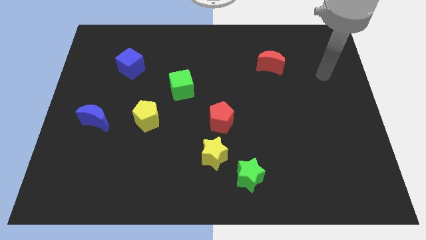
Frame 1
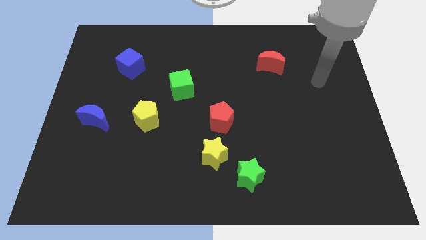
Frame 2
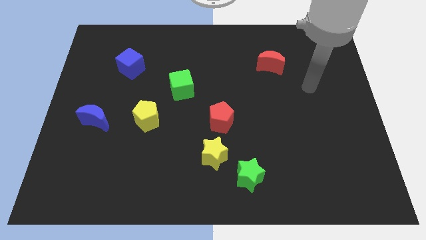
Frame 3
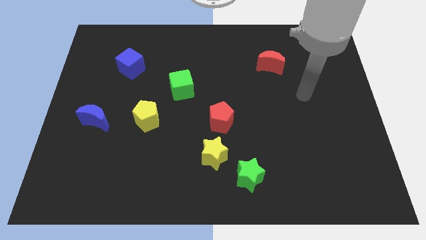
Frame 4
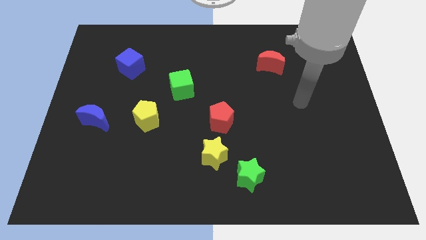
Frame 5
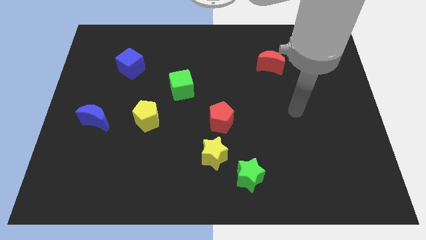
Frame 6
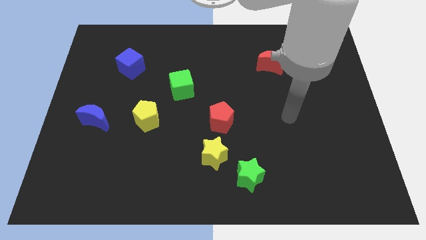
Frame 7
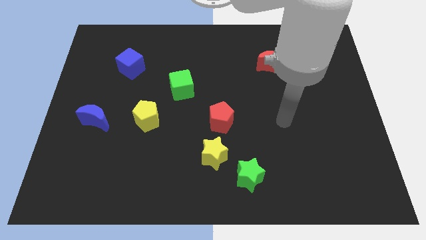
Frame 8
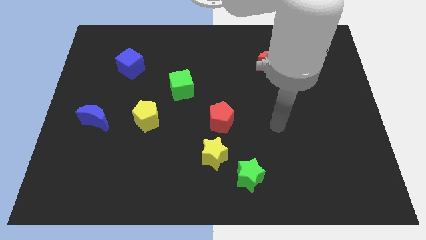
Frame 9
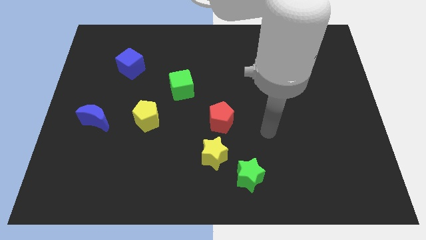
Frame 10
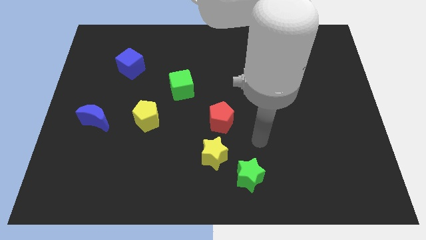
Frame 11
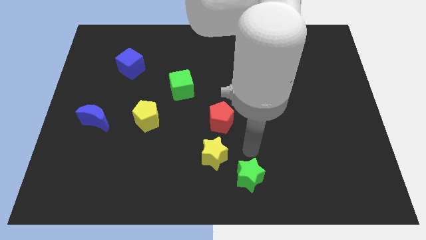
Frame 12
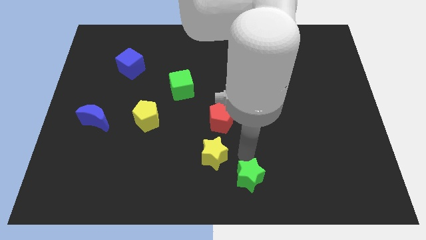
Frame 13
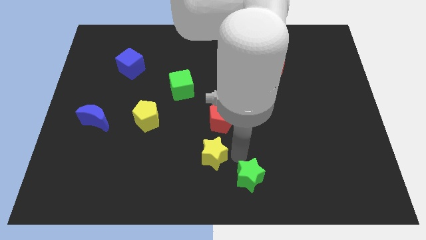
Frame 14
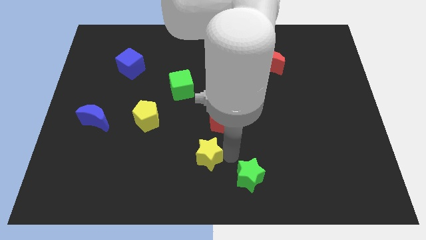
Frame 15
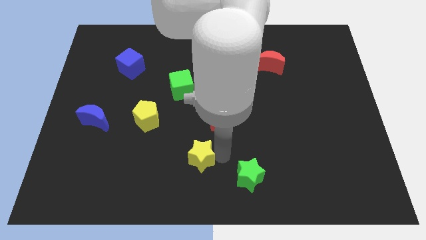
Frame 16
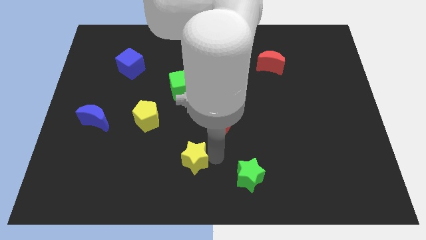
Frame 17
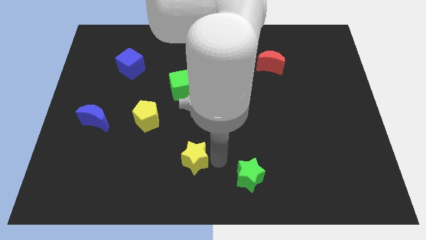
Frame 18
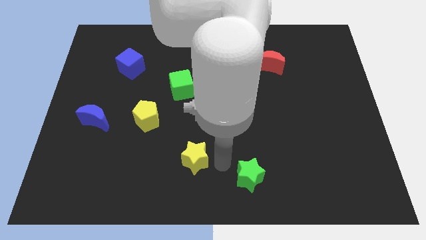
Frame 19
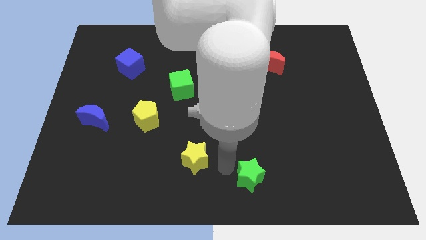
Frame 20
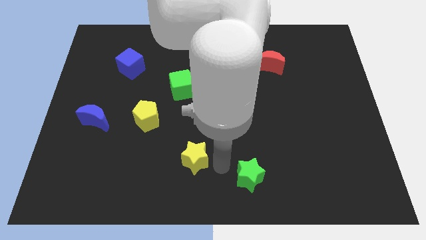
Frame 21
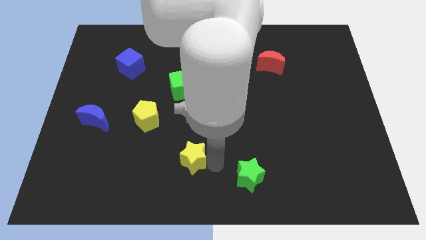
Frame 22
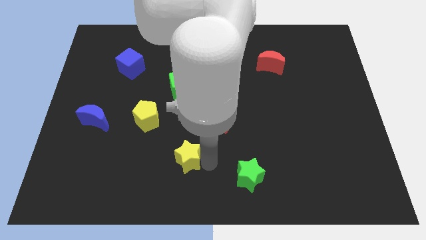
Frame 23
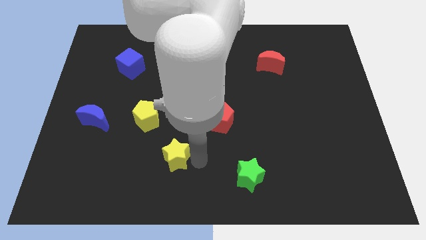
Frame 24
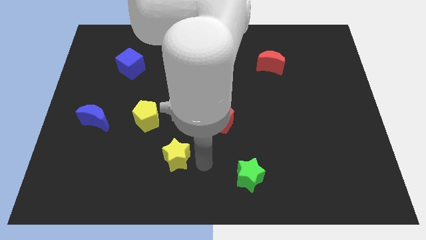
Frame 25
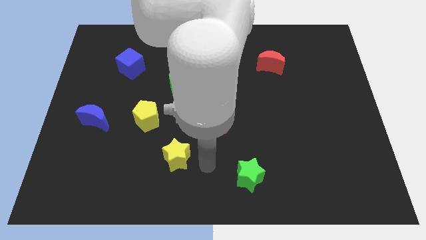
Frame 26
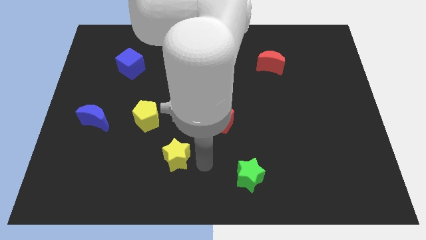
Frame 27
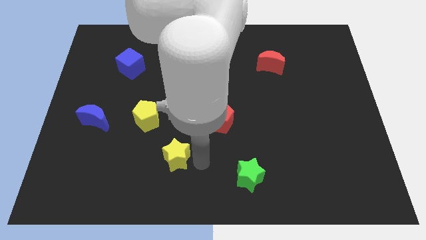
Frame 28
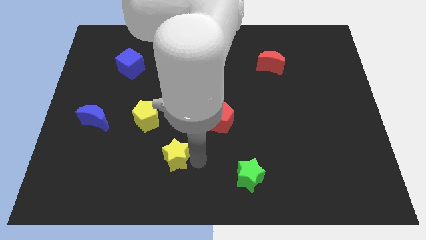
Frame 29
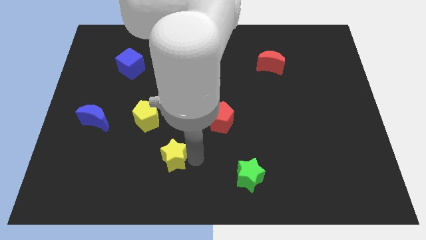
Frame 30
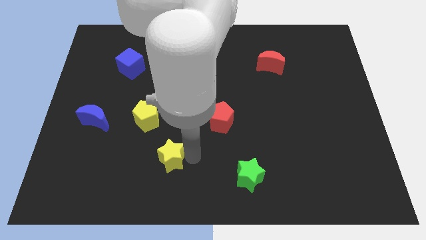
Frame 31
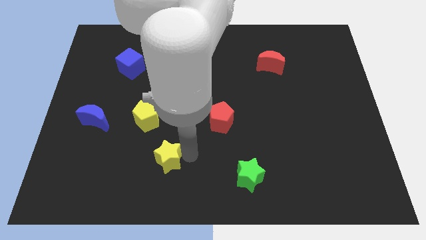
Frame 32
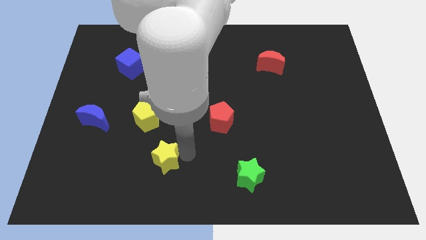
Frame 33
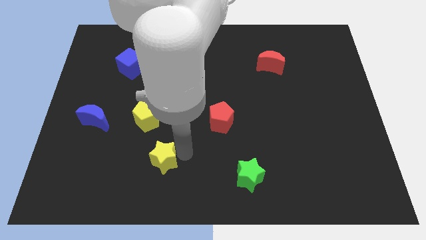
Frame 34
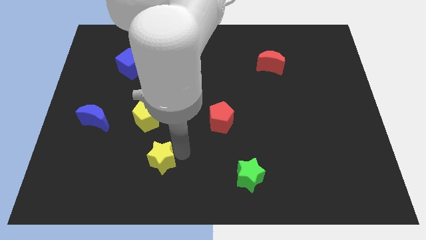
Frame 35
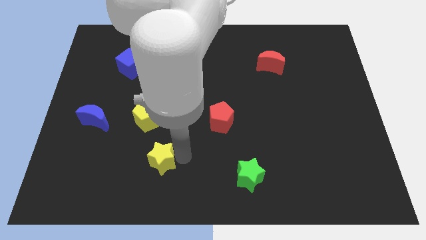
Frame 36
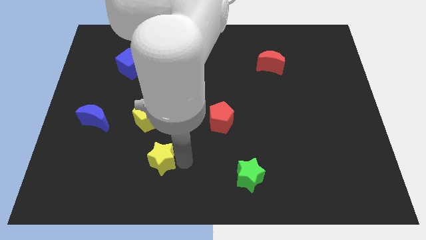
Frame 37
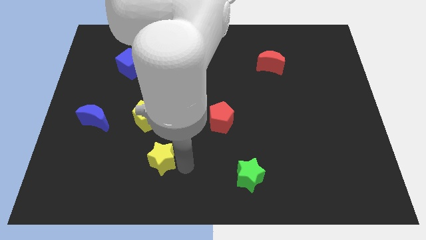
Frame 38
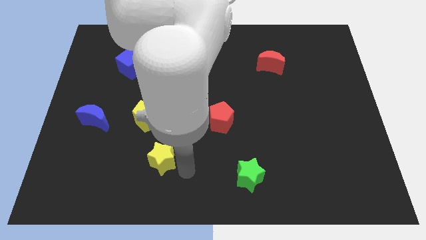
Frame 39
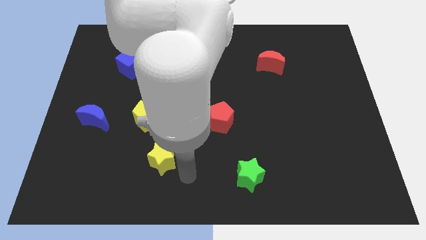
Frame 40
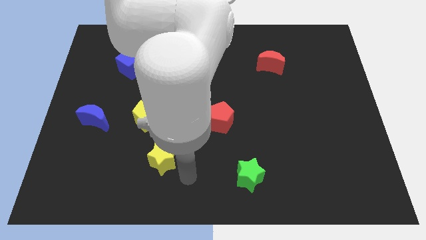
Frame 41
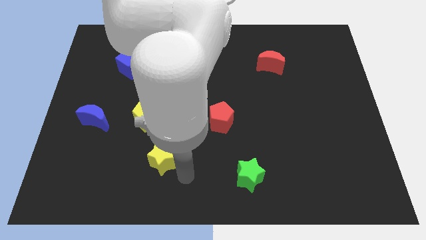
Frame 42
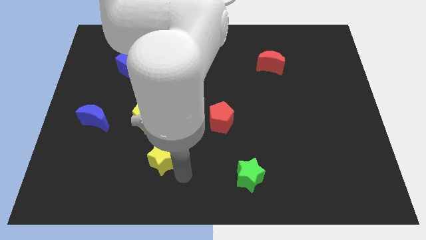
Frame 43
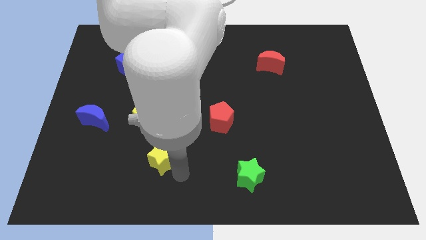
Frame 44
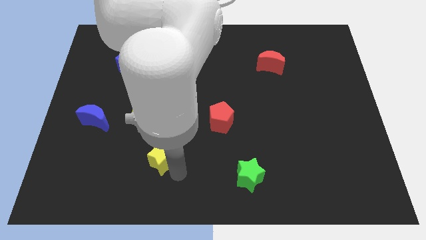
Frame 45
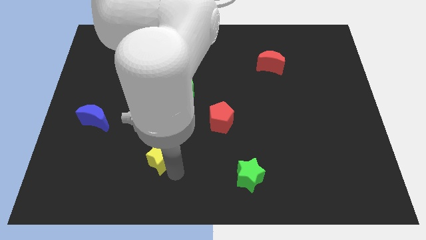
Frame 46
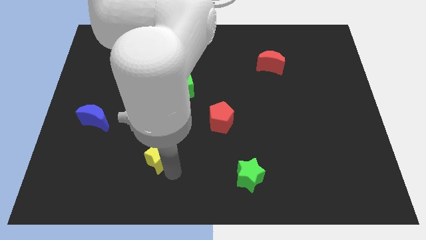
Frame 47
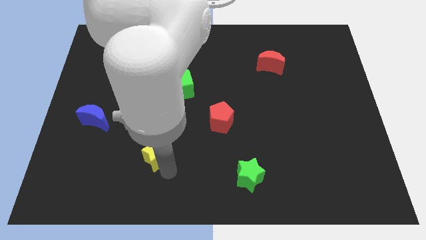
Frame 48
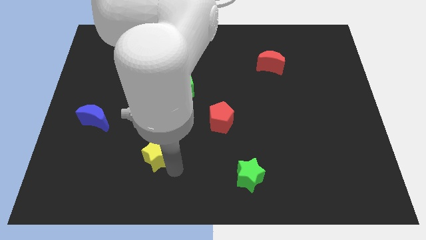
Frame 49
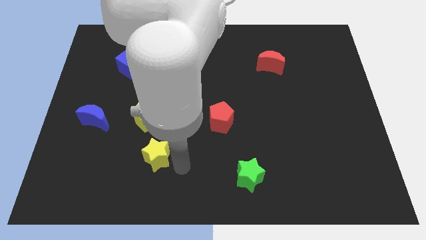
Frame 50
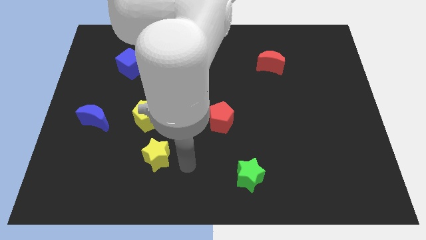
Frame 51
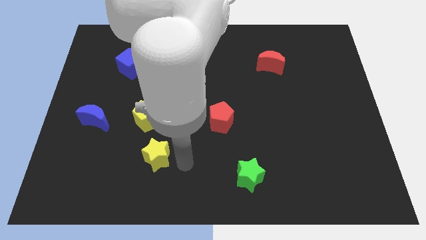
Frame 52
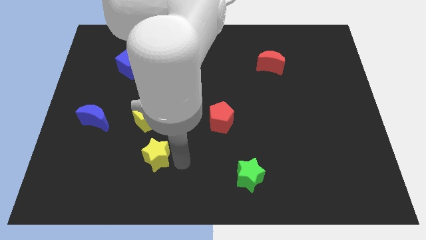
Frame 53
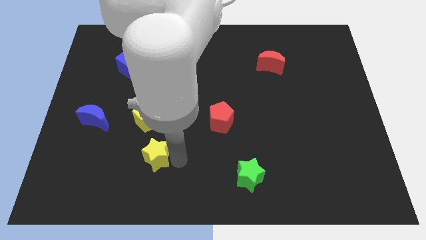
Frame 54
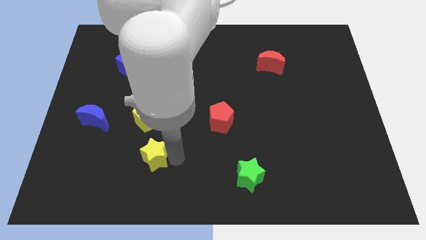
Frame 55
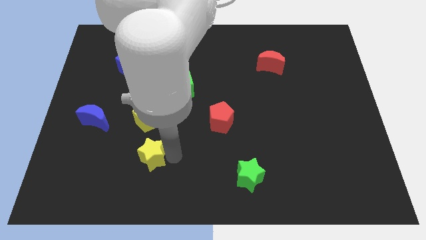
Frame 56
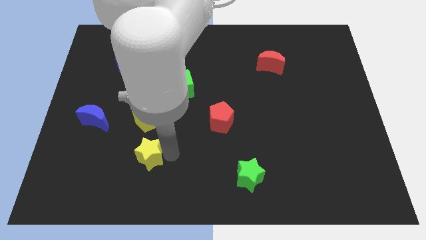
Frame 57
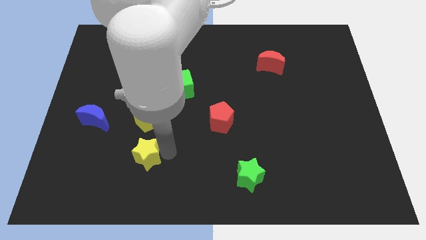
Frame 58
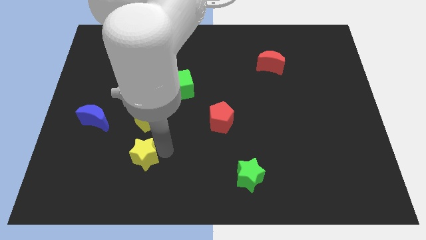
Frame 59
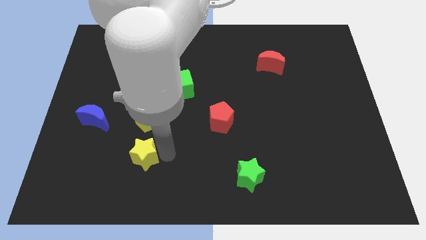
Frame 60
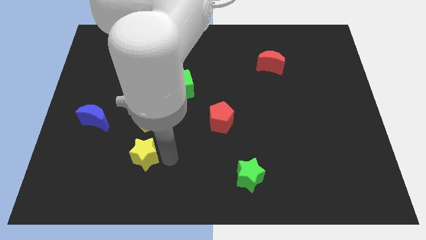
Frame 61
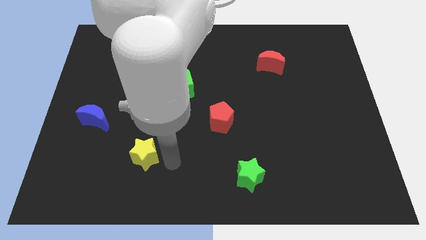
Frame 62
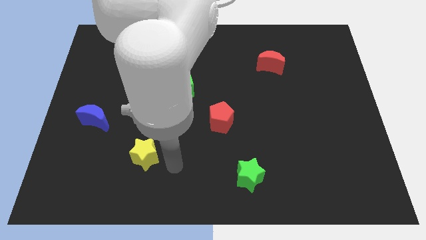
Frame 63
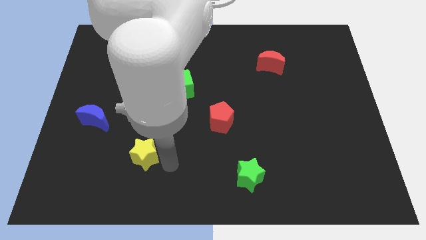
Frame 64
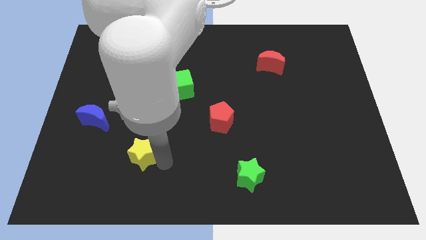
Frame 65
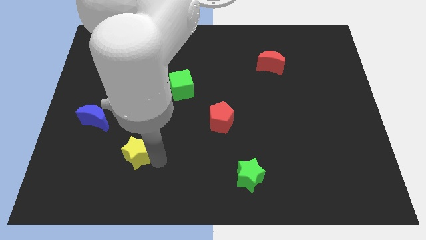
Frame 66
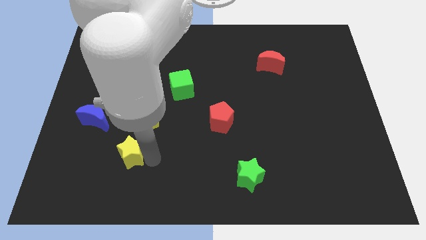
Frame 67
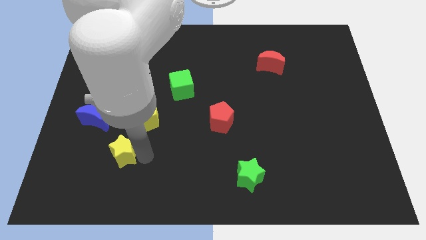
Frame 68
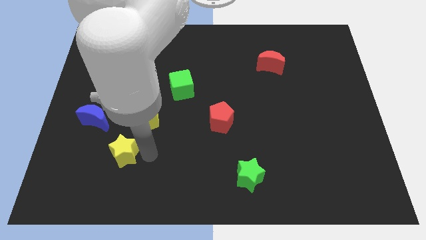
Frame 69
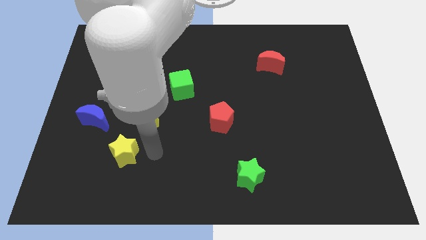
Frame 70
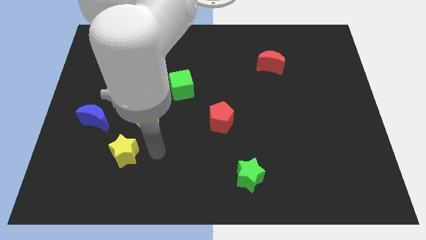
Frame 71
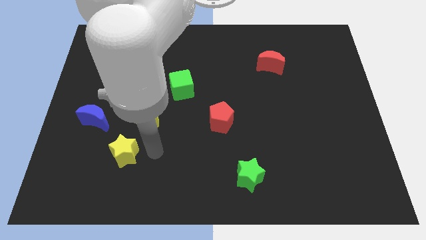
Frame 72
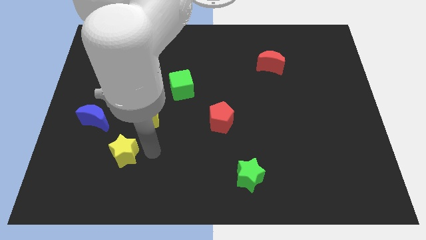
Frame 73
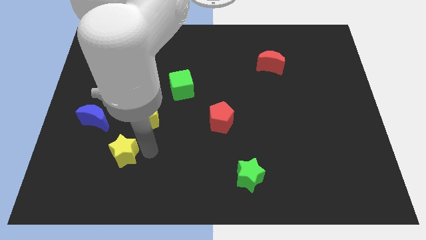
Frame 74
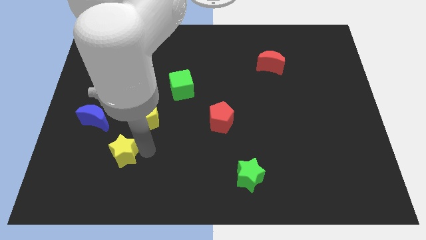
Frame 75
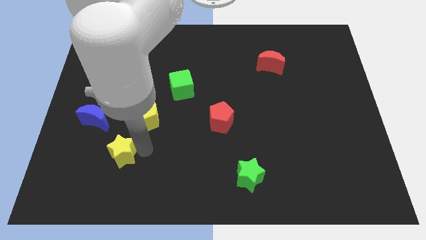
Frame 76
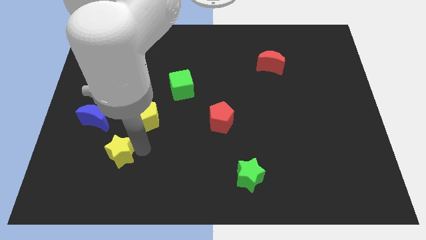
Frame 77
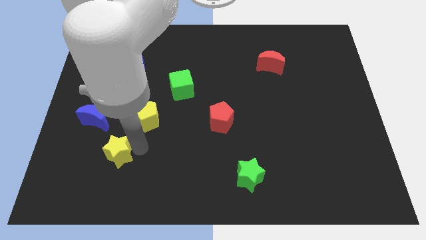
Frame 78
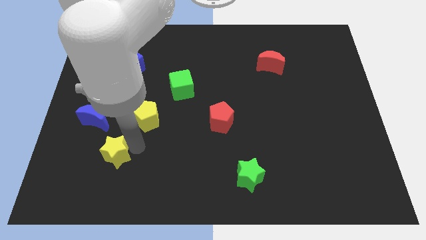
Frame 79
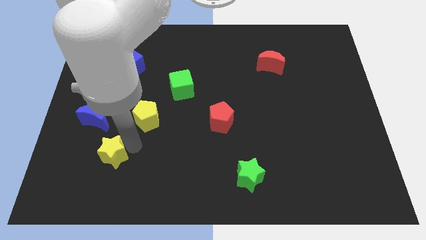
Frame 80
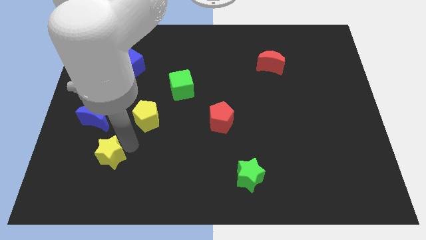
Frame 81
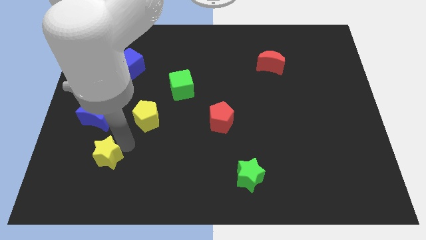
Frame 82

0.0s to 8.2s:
put the yellow star to the bottom of the blue moon
